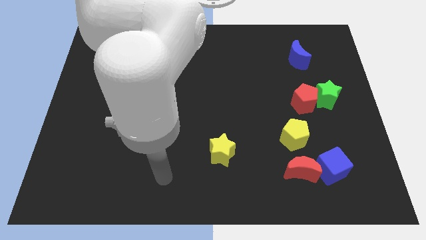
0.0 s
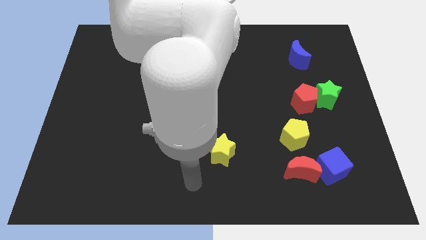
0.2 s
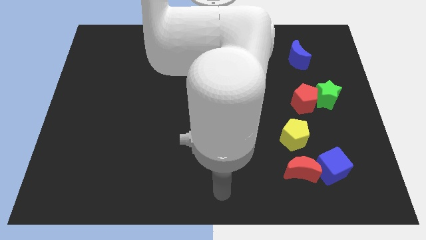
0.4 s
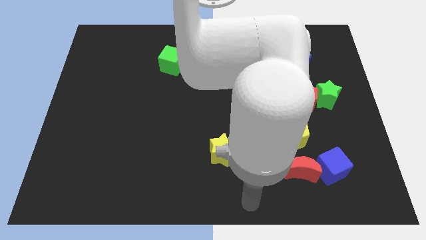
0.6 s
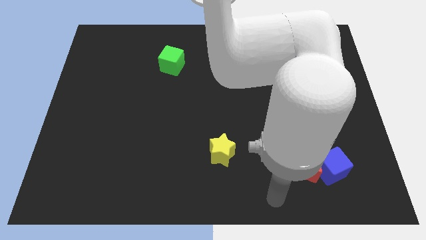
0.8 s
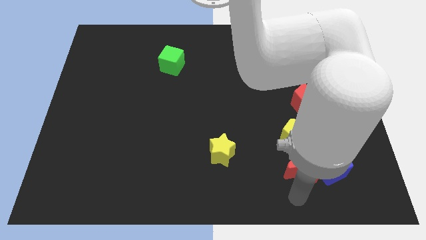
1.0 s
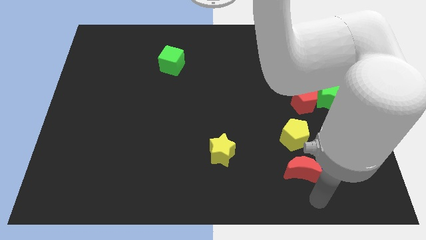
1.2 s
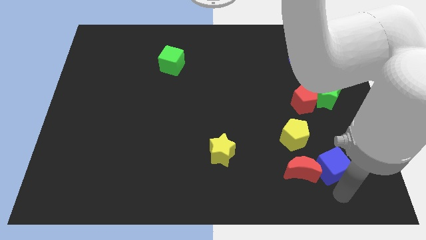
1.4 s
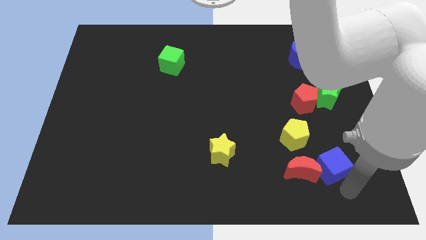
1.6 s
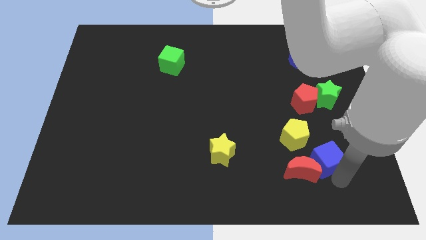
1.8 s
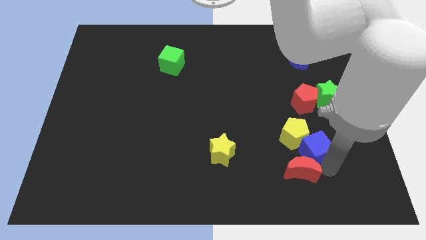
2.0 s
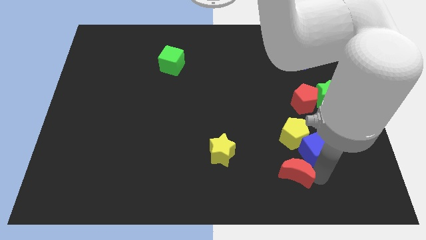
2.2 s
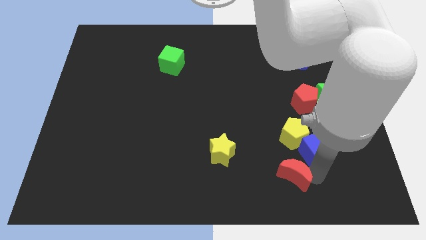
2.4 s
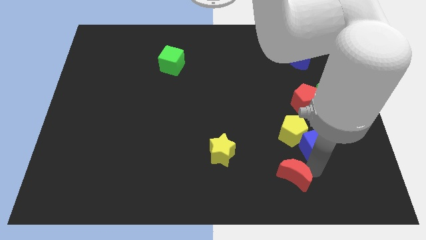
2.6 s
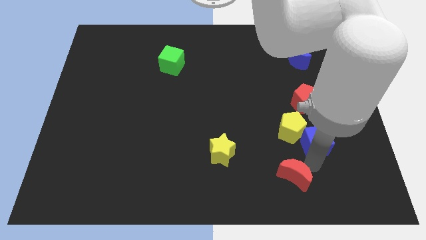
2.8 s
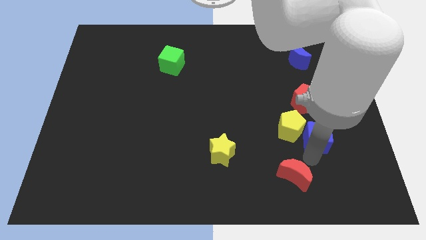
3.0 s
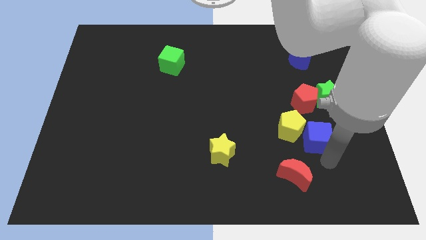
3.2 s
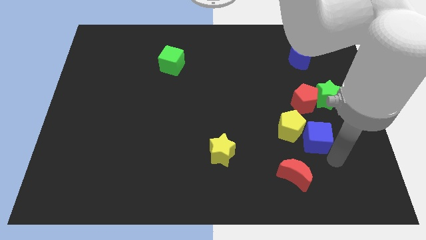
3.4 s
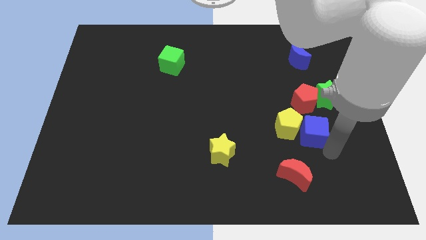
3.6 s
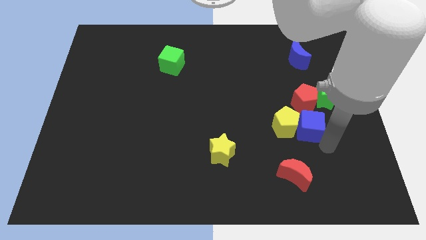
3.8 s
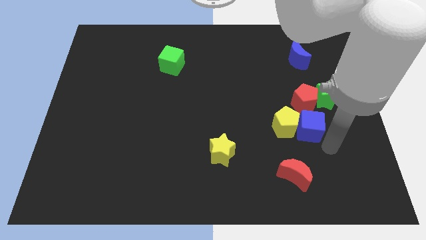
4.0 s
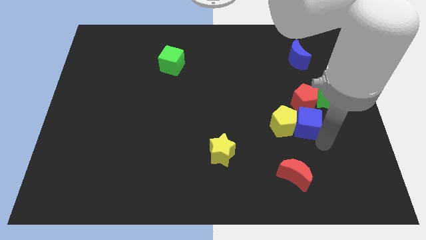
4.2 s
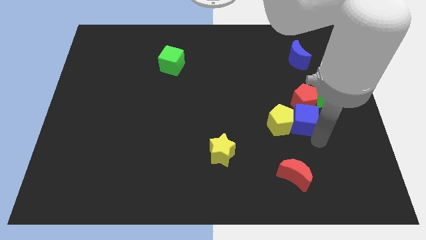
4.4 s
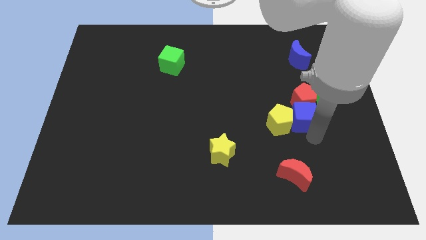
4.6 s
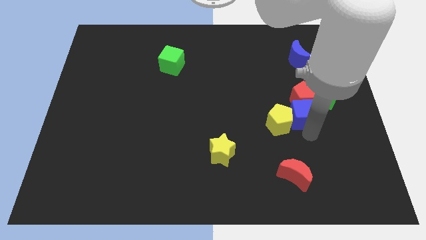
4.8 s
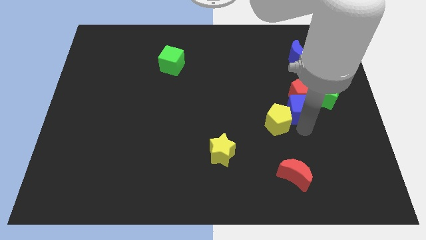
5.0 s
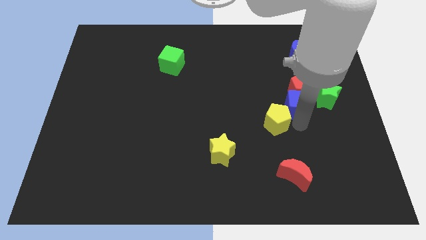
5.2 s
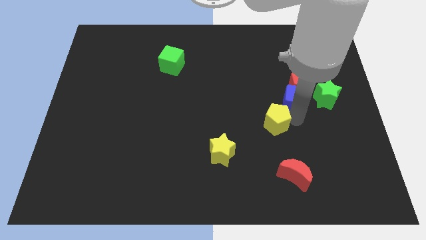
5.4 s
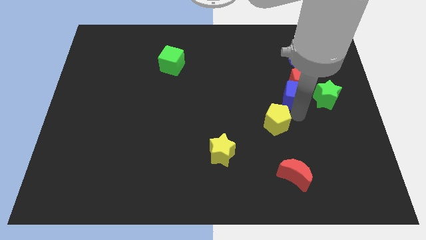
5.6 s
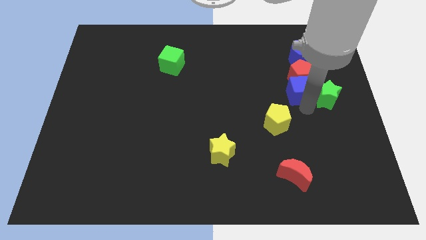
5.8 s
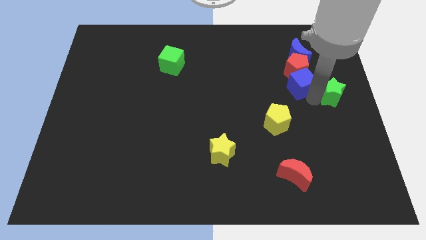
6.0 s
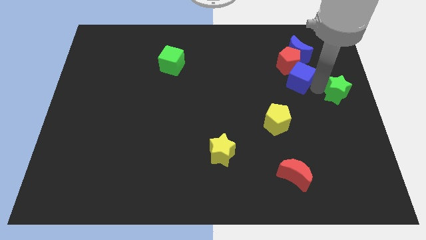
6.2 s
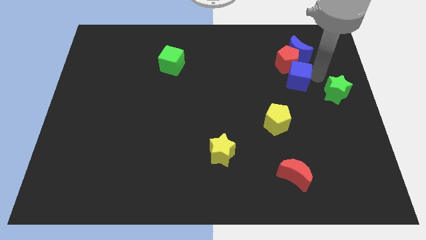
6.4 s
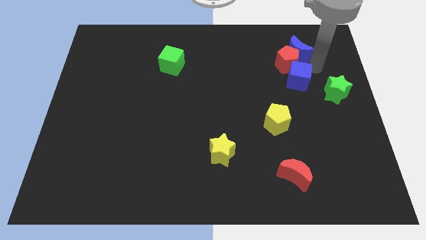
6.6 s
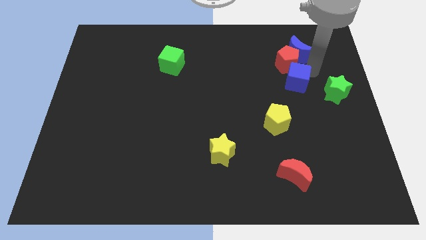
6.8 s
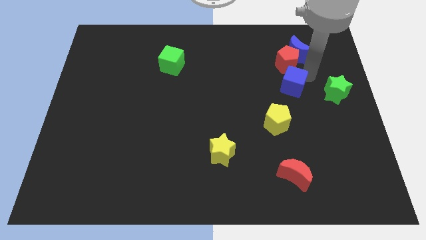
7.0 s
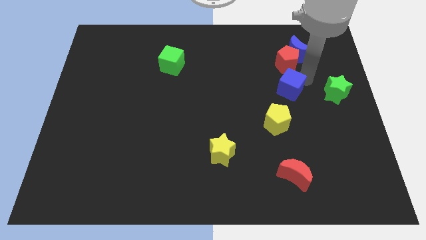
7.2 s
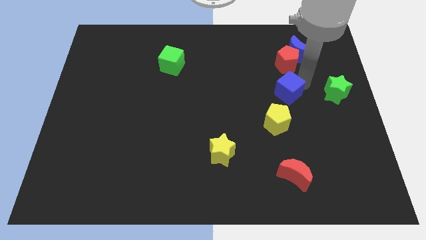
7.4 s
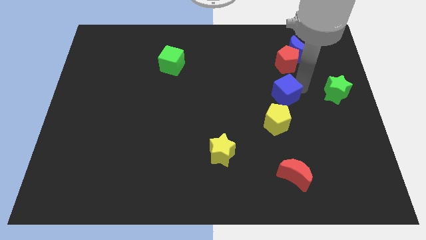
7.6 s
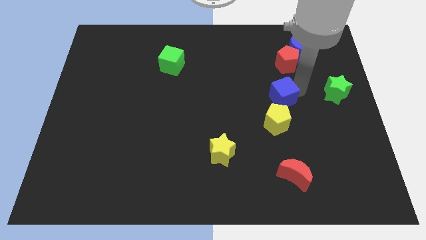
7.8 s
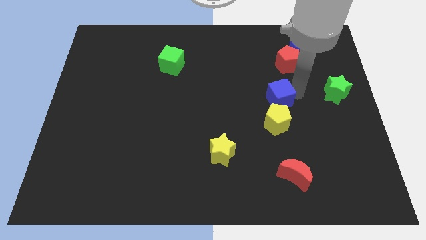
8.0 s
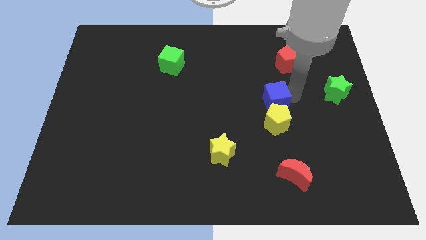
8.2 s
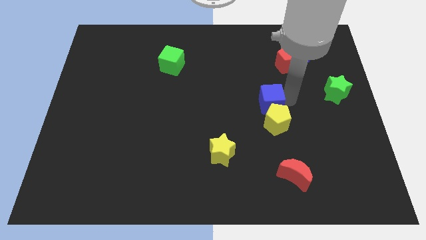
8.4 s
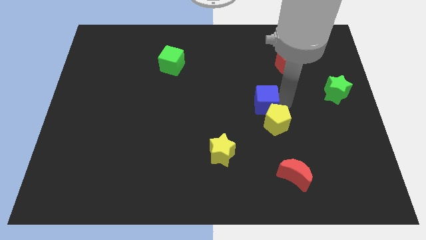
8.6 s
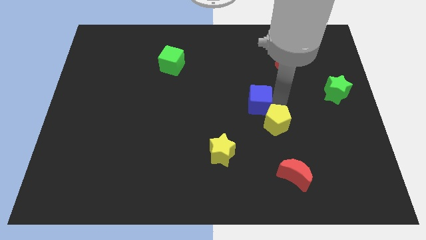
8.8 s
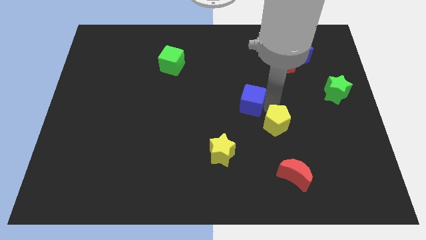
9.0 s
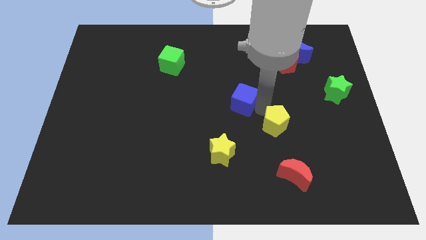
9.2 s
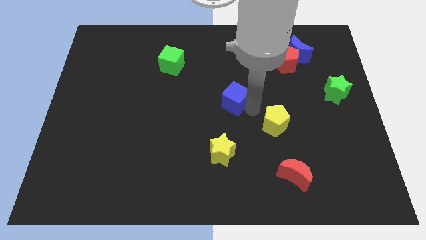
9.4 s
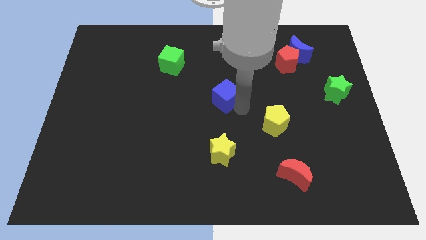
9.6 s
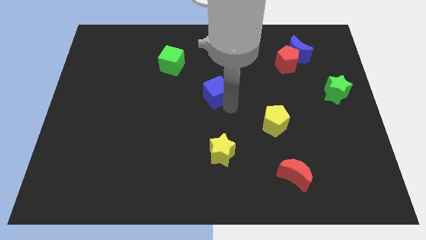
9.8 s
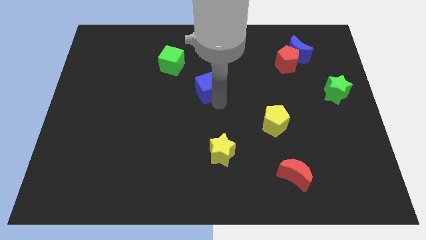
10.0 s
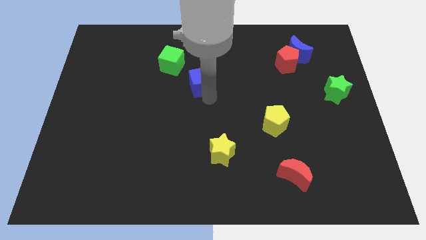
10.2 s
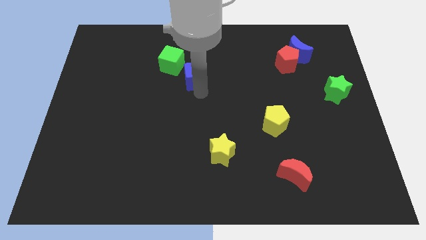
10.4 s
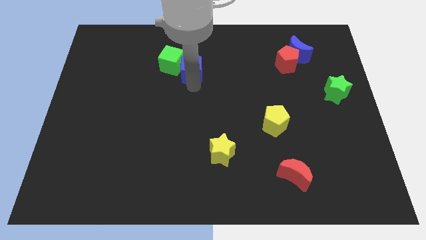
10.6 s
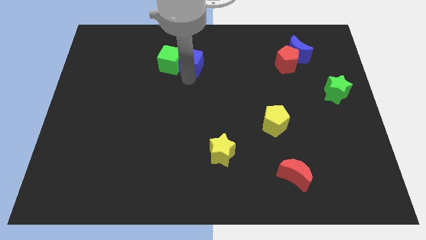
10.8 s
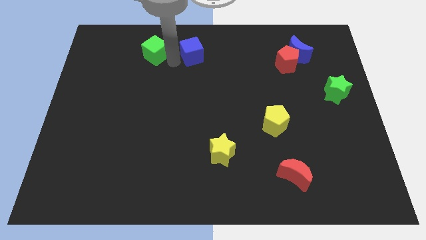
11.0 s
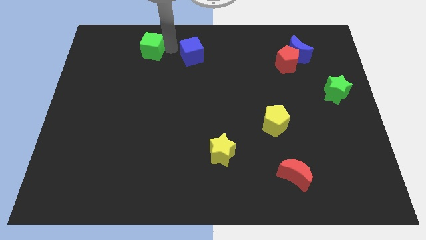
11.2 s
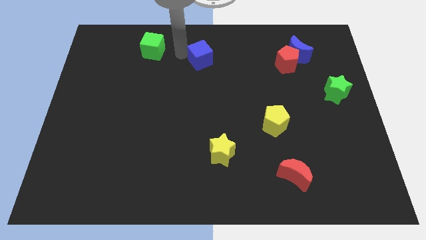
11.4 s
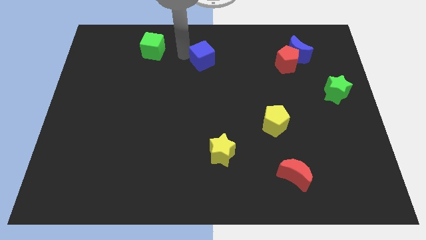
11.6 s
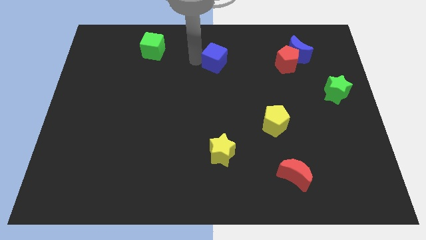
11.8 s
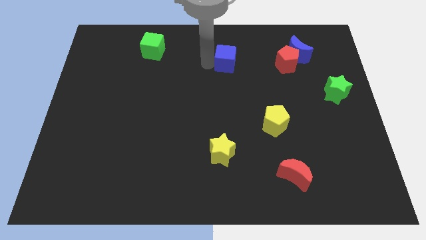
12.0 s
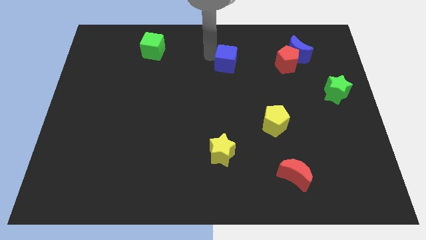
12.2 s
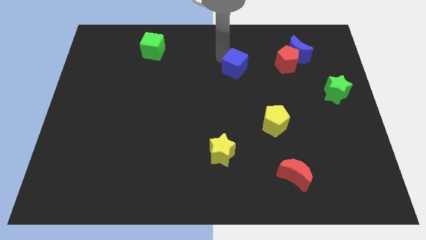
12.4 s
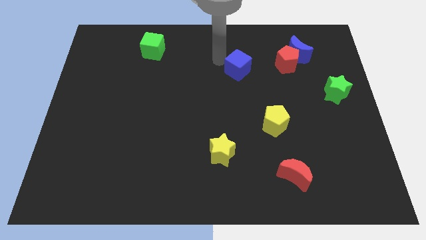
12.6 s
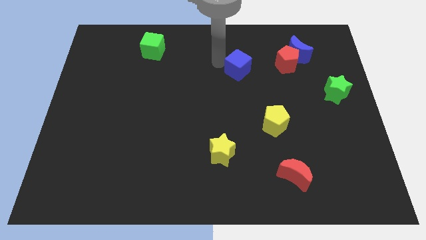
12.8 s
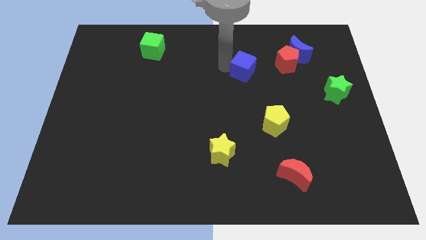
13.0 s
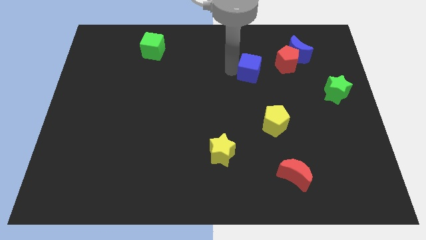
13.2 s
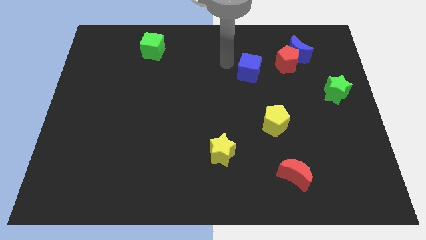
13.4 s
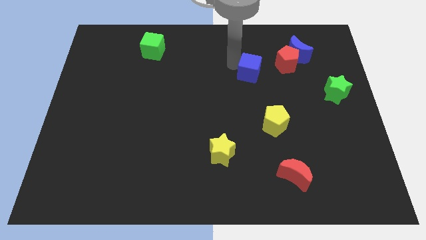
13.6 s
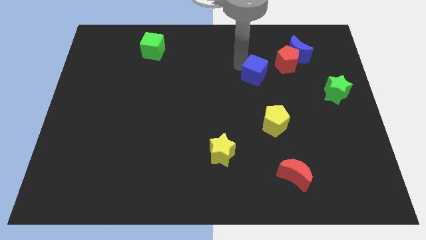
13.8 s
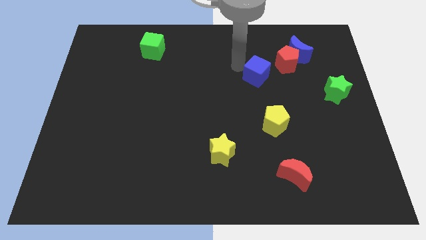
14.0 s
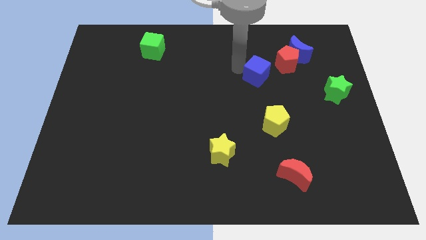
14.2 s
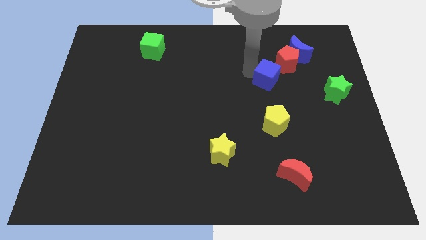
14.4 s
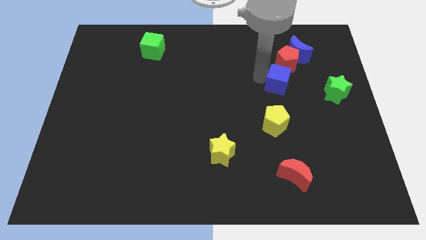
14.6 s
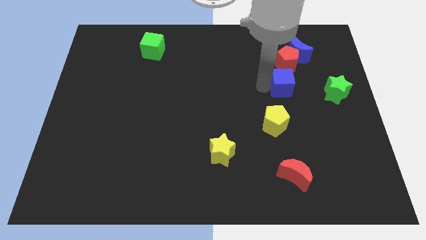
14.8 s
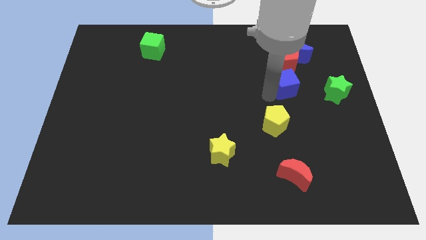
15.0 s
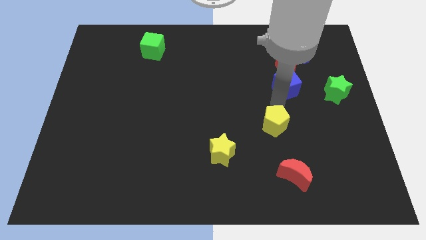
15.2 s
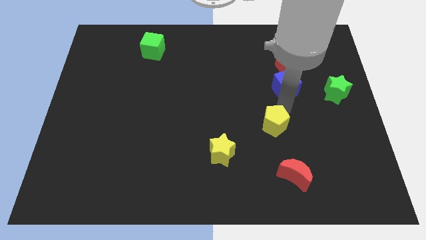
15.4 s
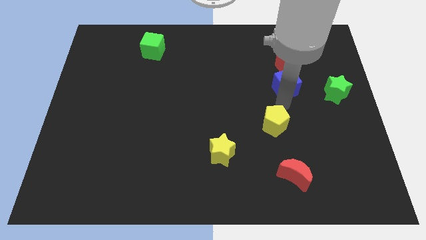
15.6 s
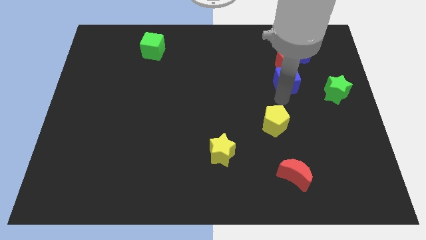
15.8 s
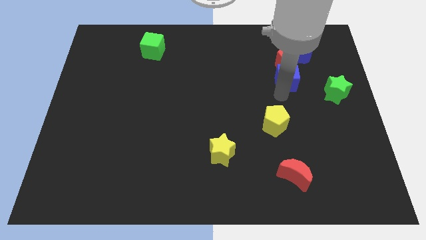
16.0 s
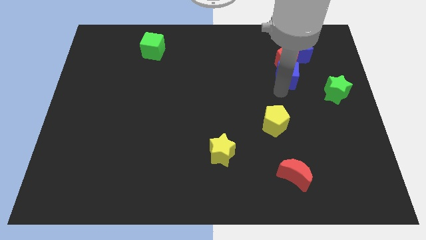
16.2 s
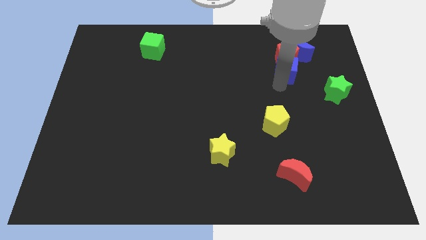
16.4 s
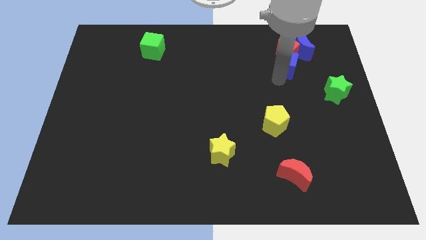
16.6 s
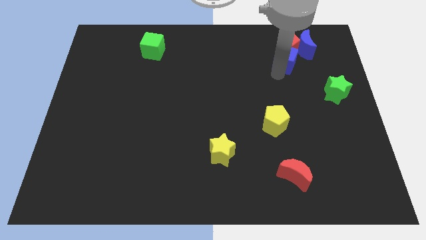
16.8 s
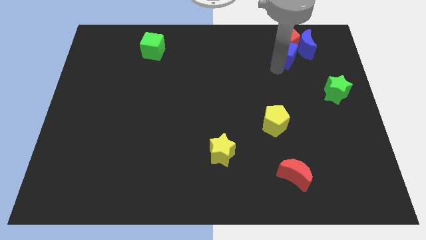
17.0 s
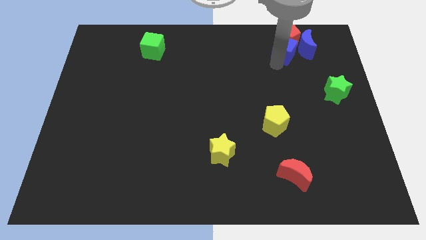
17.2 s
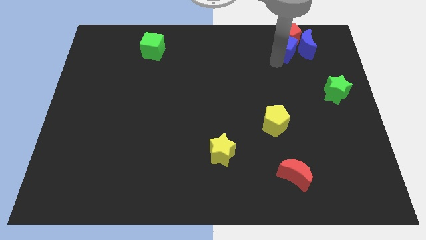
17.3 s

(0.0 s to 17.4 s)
push the blue cube to the blue moon
